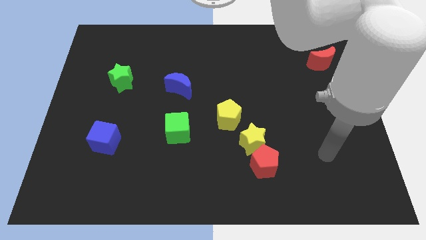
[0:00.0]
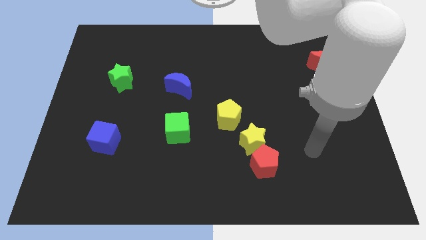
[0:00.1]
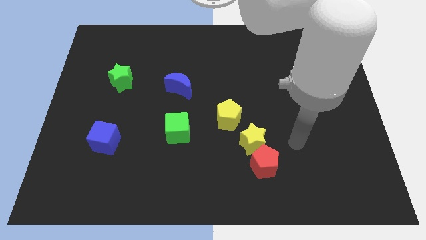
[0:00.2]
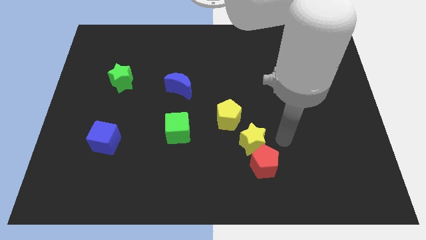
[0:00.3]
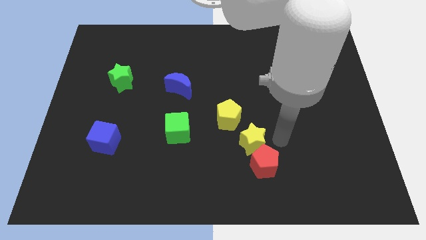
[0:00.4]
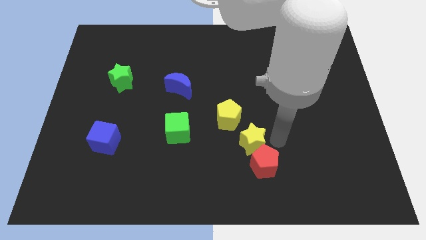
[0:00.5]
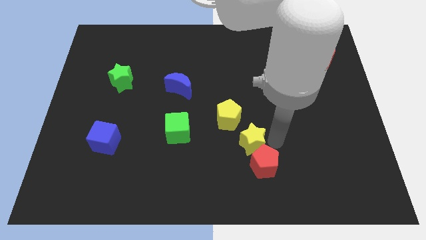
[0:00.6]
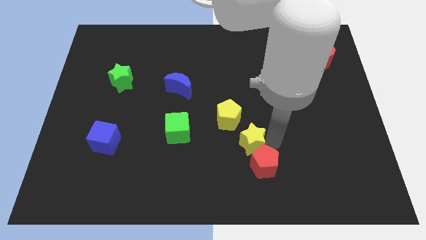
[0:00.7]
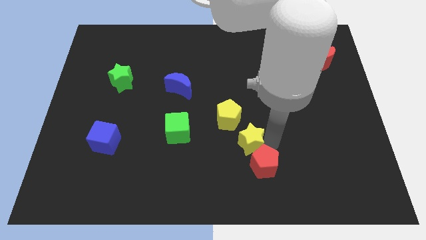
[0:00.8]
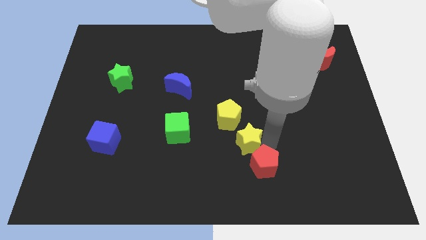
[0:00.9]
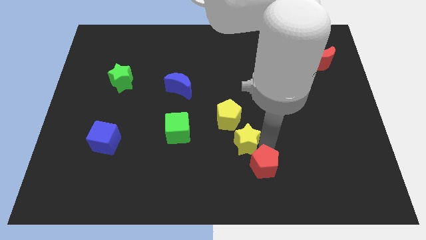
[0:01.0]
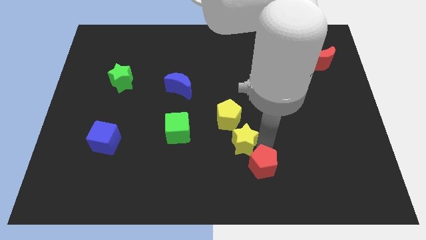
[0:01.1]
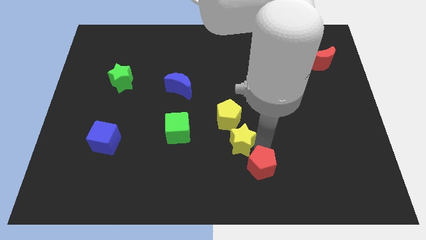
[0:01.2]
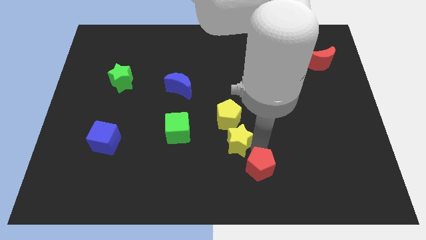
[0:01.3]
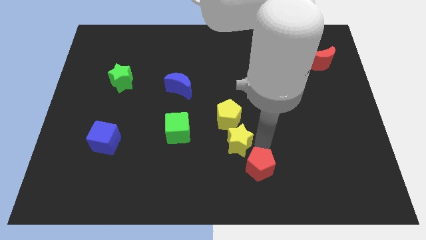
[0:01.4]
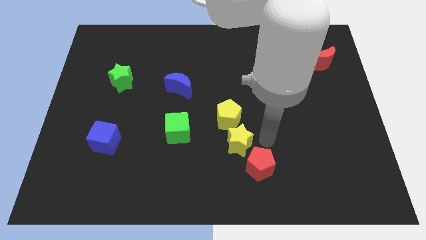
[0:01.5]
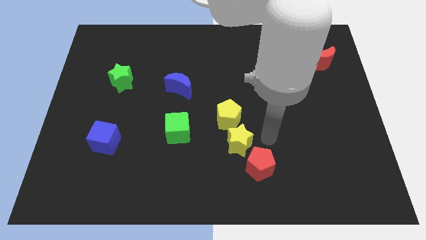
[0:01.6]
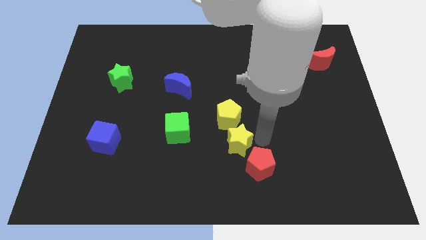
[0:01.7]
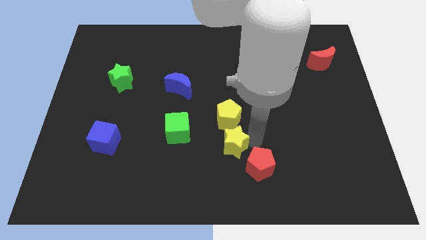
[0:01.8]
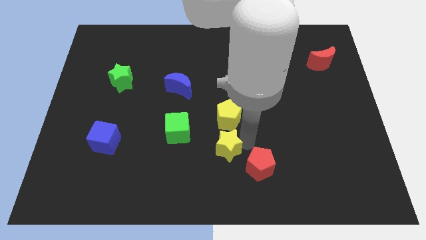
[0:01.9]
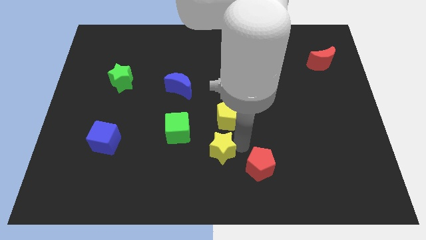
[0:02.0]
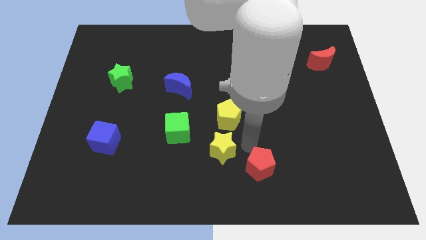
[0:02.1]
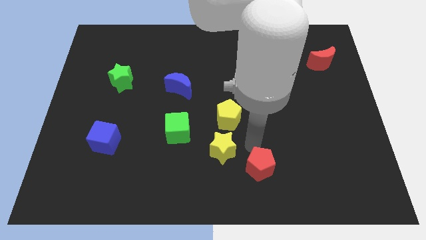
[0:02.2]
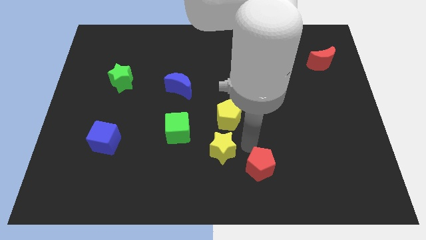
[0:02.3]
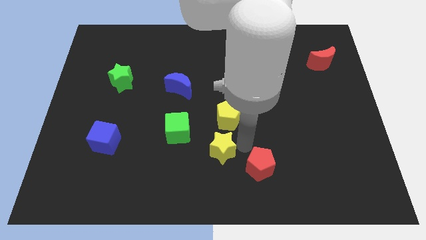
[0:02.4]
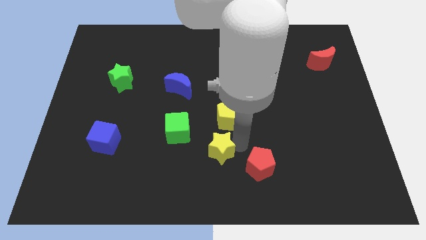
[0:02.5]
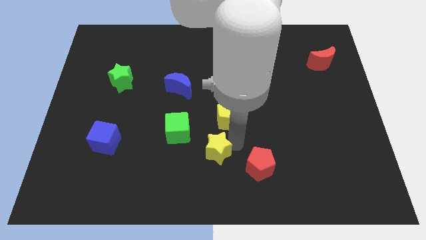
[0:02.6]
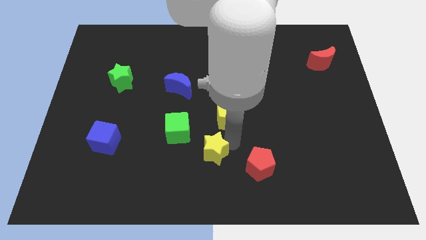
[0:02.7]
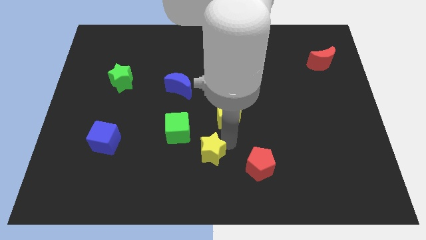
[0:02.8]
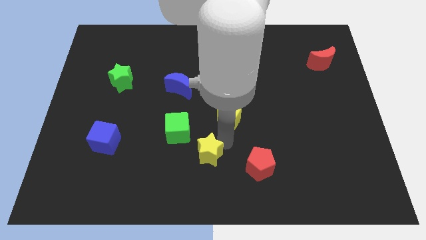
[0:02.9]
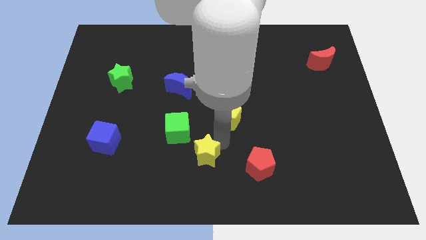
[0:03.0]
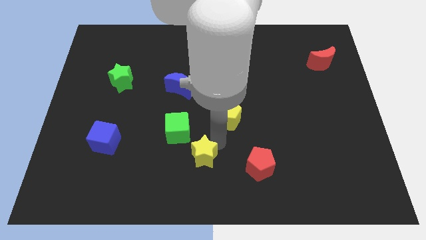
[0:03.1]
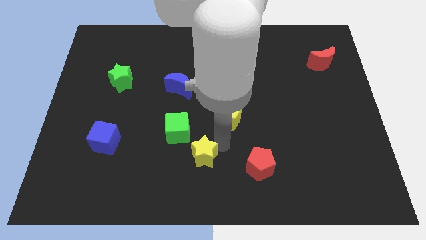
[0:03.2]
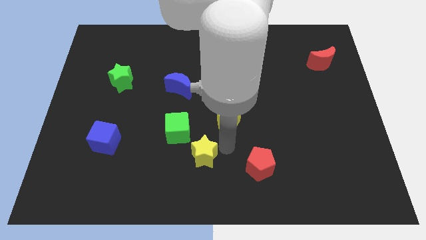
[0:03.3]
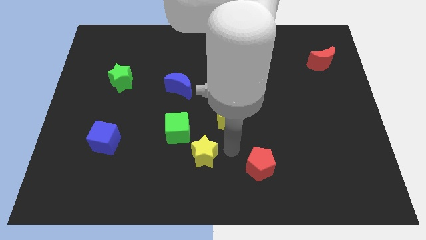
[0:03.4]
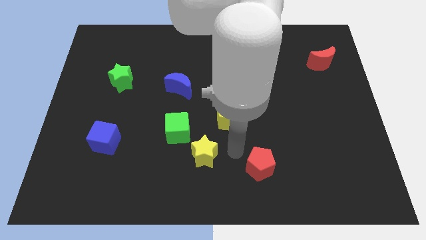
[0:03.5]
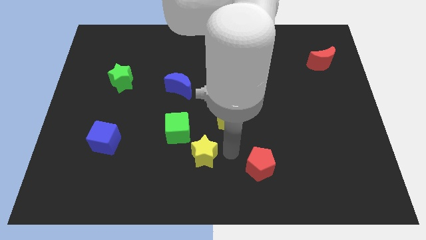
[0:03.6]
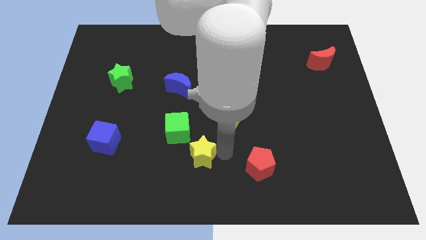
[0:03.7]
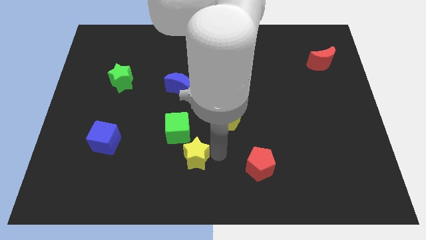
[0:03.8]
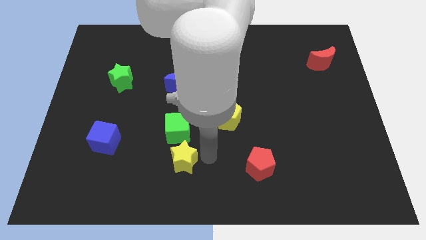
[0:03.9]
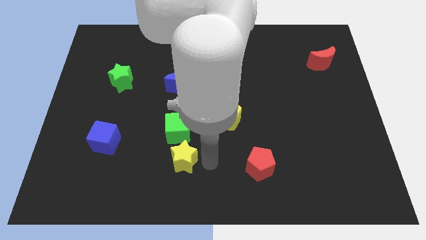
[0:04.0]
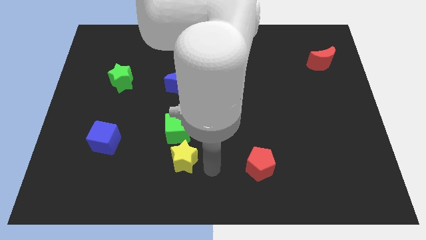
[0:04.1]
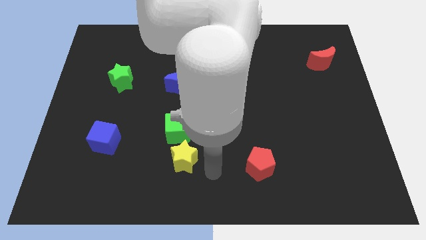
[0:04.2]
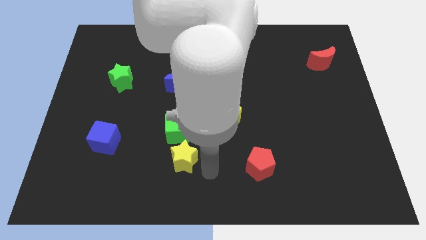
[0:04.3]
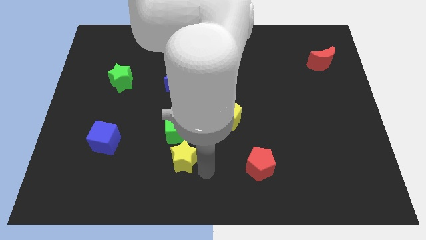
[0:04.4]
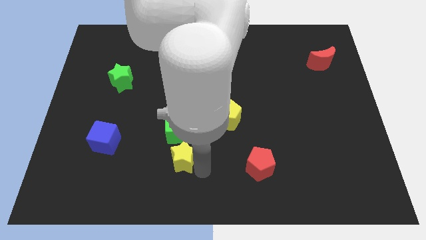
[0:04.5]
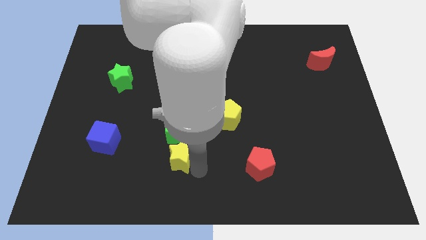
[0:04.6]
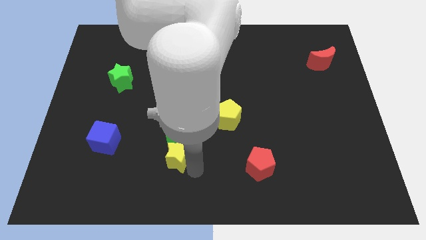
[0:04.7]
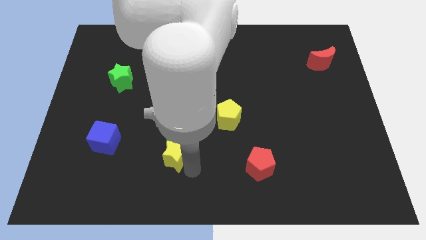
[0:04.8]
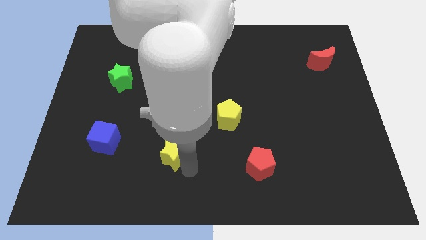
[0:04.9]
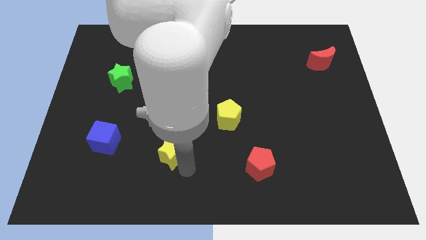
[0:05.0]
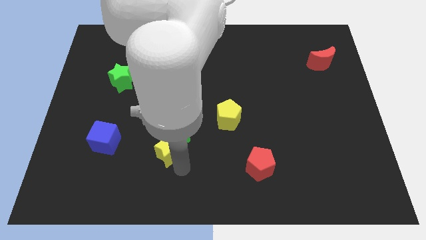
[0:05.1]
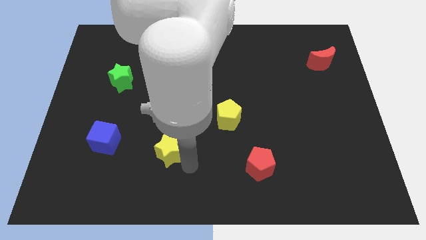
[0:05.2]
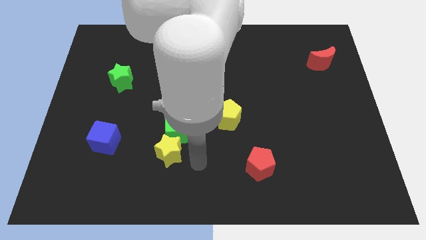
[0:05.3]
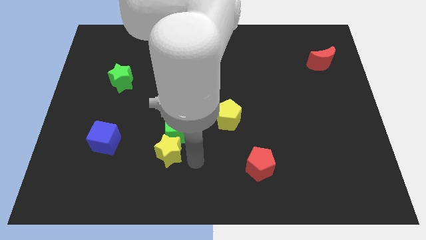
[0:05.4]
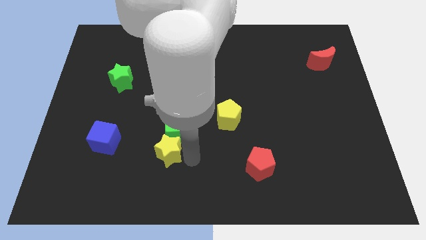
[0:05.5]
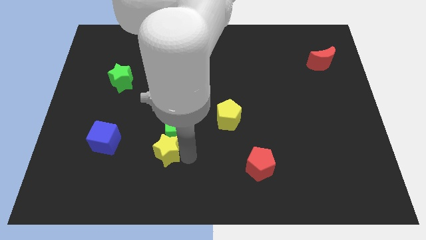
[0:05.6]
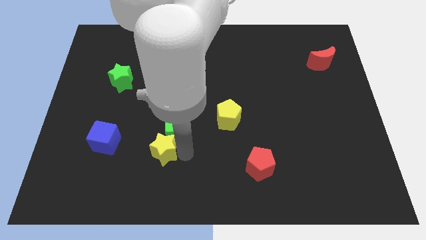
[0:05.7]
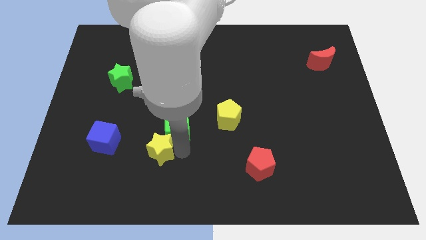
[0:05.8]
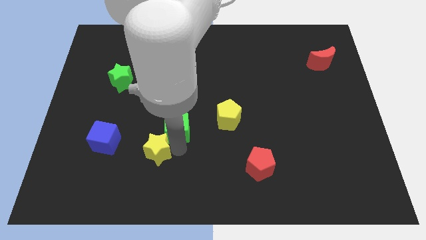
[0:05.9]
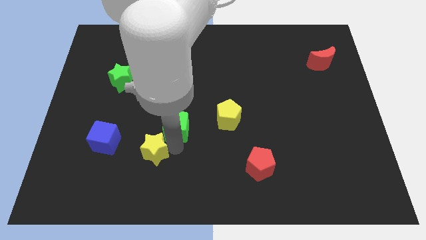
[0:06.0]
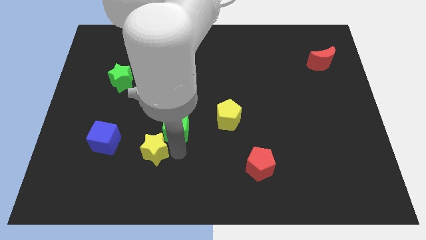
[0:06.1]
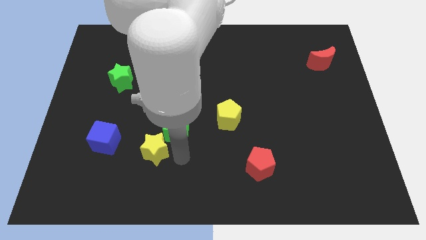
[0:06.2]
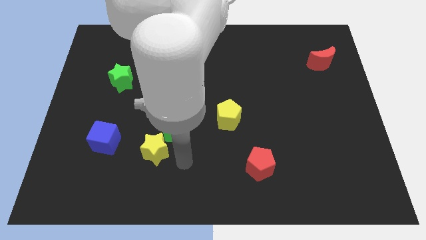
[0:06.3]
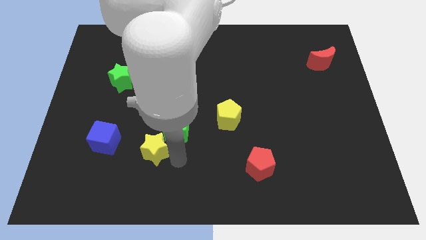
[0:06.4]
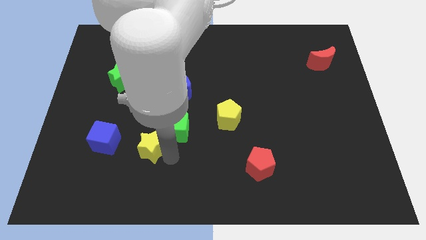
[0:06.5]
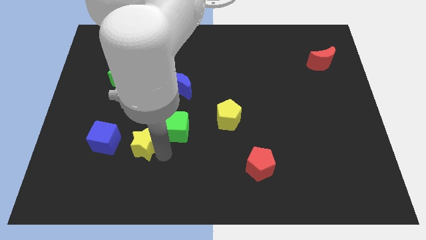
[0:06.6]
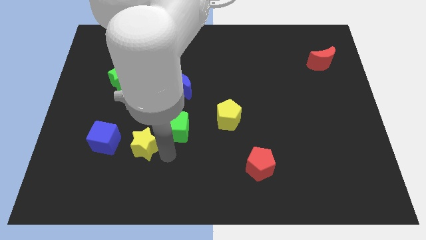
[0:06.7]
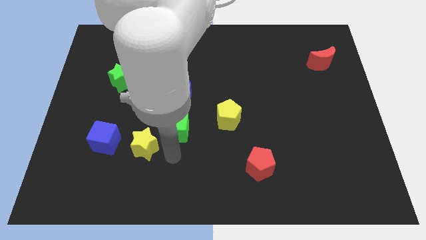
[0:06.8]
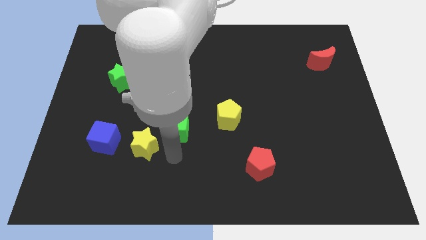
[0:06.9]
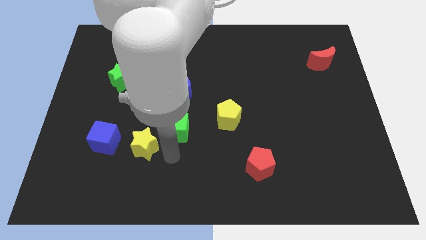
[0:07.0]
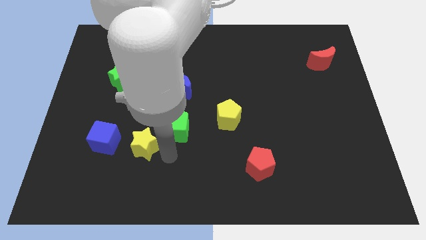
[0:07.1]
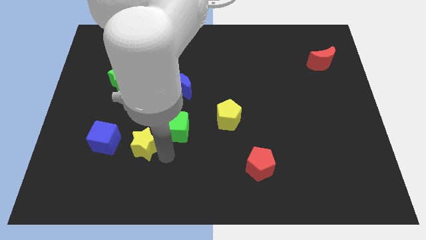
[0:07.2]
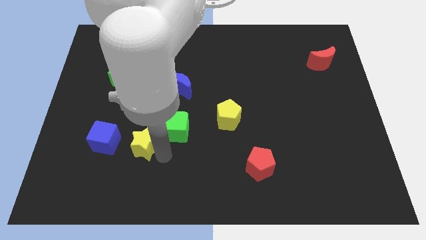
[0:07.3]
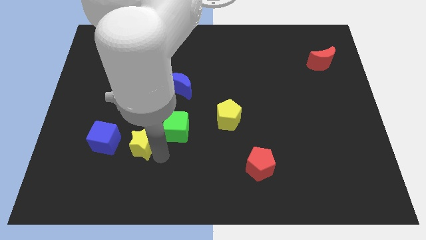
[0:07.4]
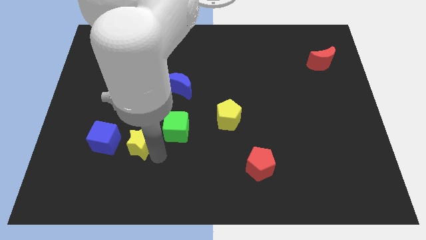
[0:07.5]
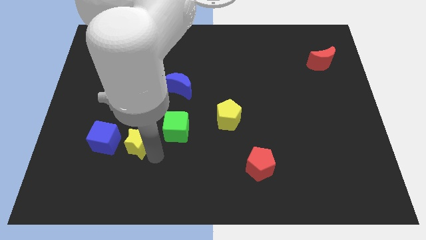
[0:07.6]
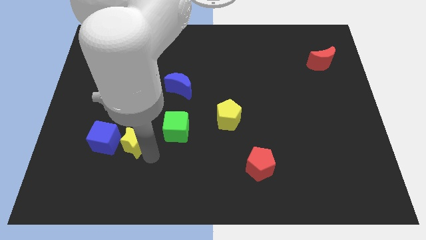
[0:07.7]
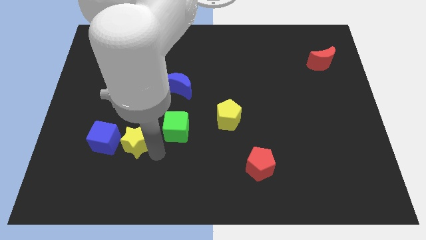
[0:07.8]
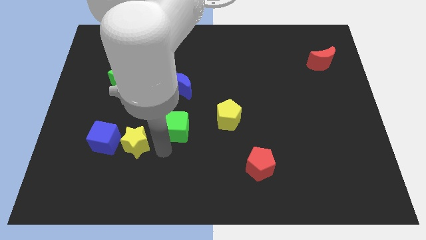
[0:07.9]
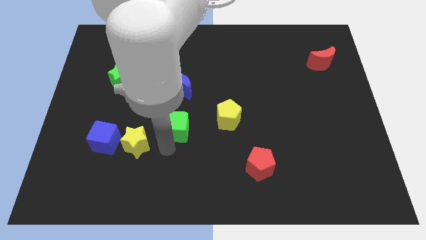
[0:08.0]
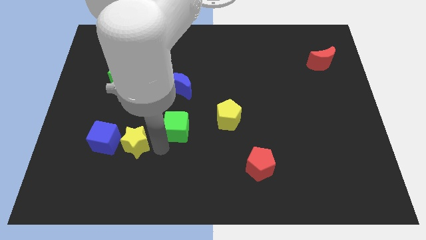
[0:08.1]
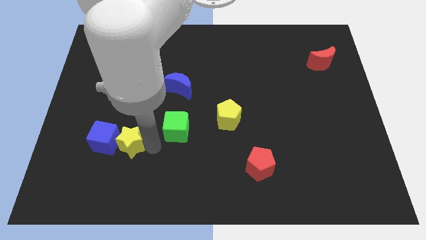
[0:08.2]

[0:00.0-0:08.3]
put the yellow star next to the blue cube
